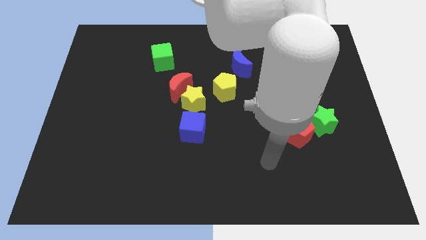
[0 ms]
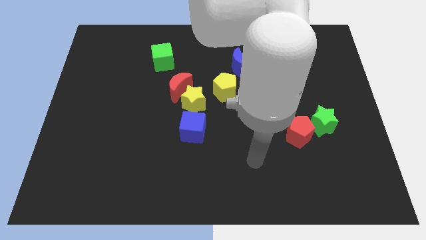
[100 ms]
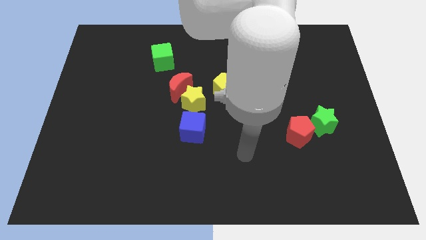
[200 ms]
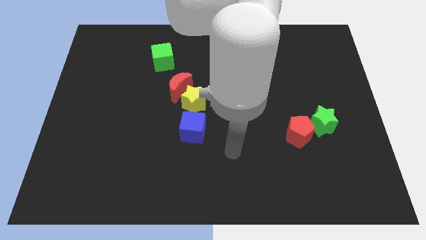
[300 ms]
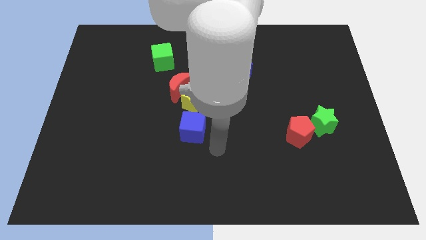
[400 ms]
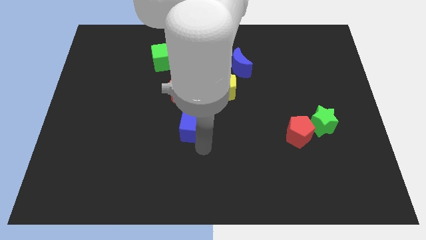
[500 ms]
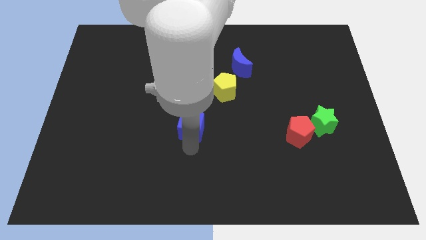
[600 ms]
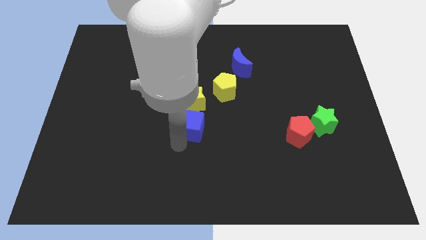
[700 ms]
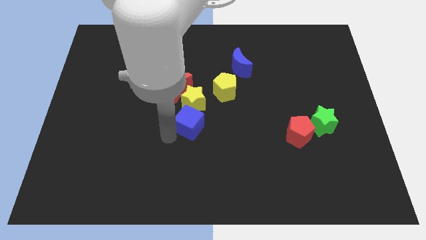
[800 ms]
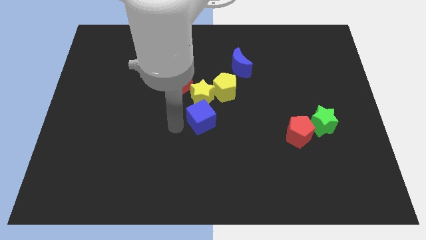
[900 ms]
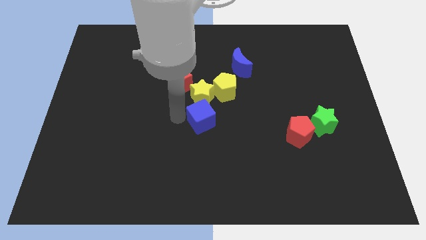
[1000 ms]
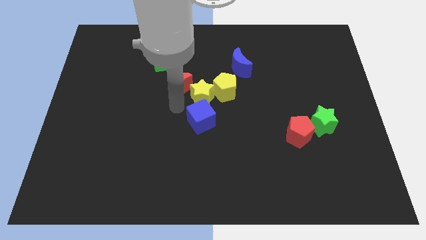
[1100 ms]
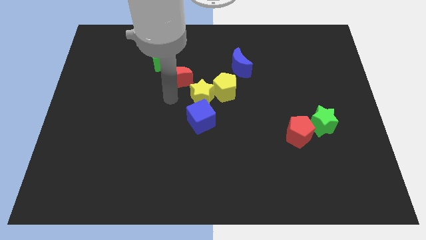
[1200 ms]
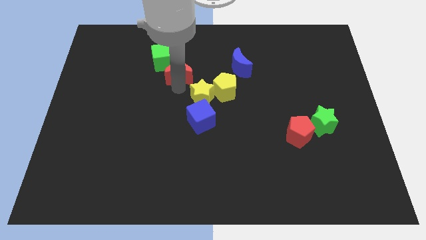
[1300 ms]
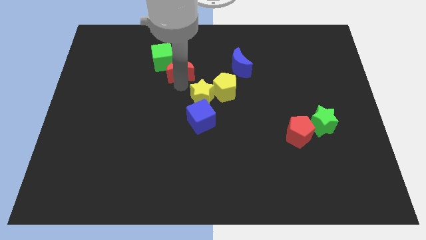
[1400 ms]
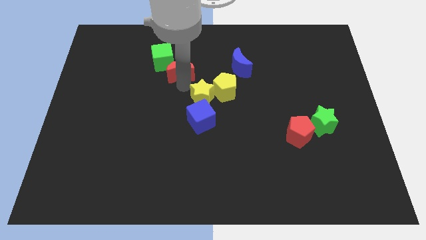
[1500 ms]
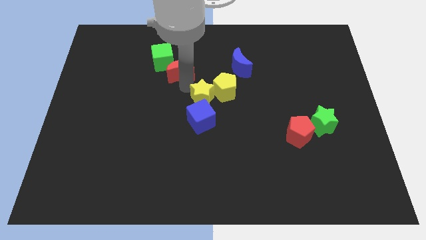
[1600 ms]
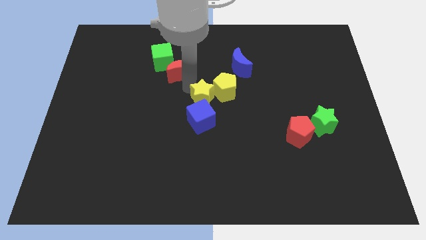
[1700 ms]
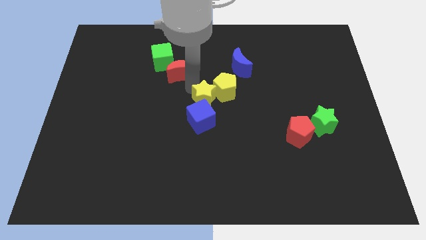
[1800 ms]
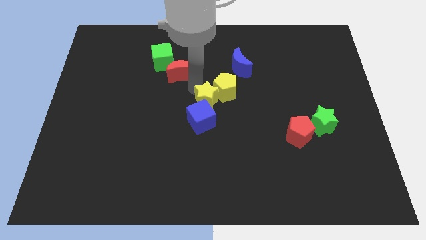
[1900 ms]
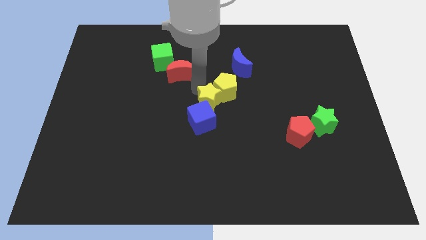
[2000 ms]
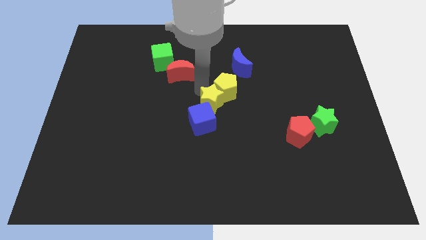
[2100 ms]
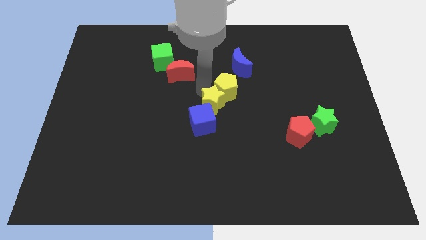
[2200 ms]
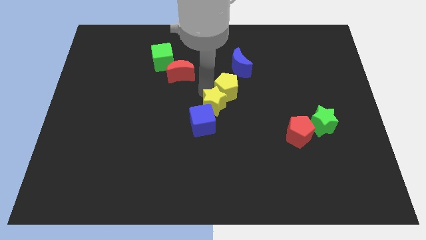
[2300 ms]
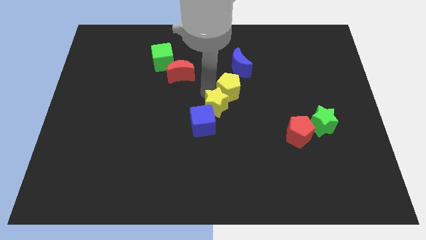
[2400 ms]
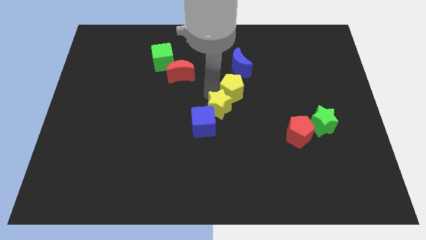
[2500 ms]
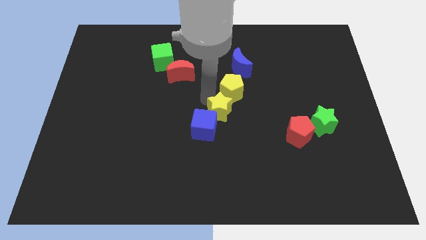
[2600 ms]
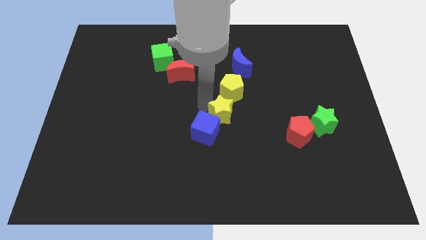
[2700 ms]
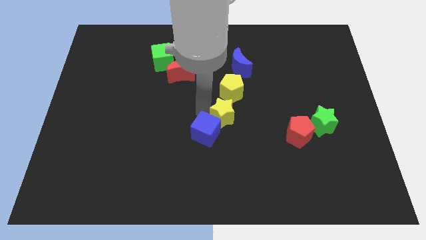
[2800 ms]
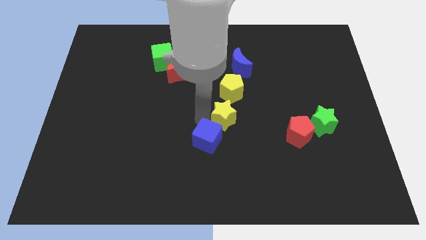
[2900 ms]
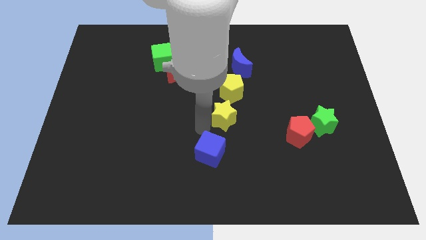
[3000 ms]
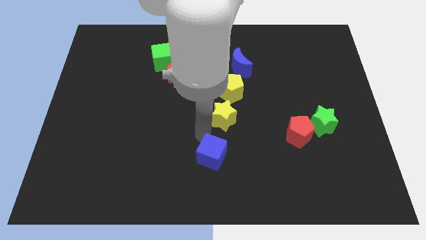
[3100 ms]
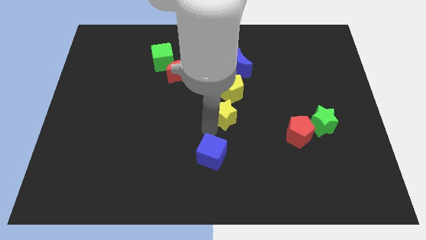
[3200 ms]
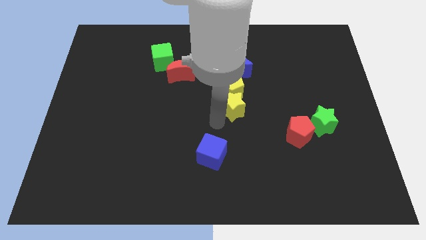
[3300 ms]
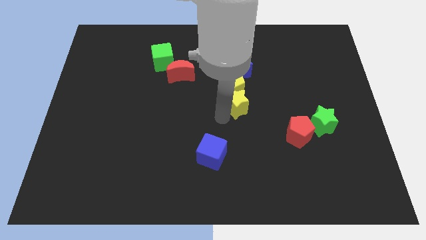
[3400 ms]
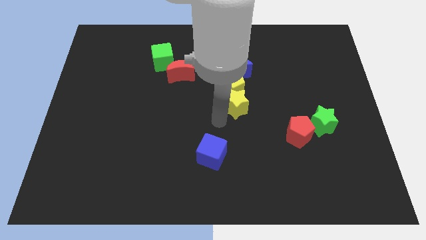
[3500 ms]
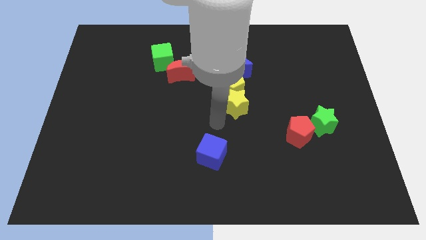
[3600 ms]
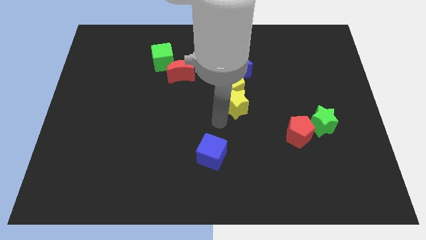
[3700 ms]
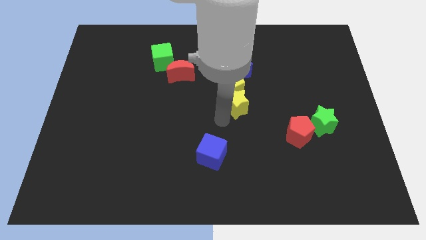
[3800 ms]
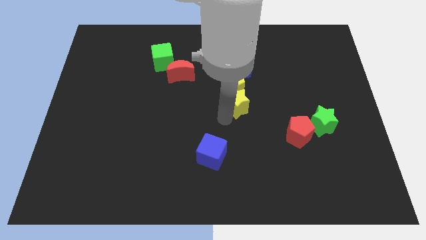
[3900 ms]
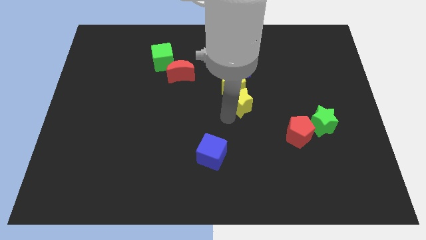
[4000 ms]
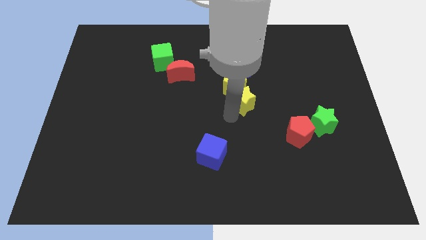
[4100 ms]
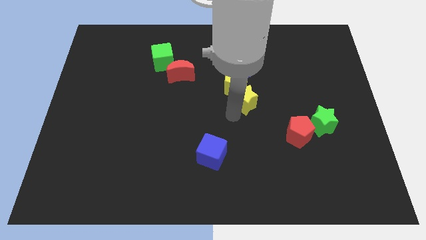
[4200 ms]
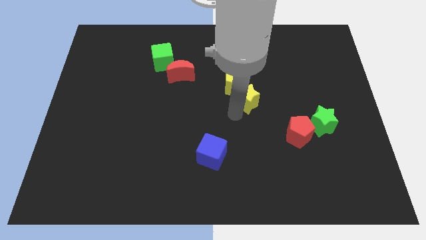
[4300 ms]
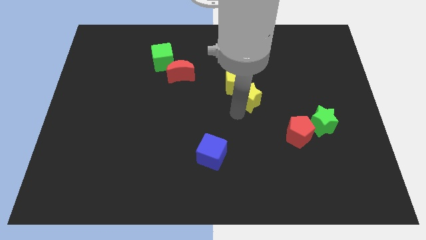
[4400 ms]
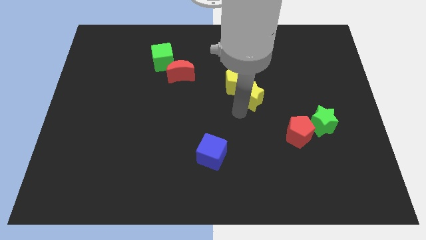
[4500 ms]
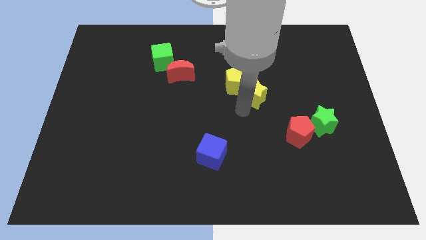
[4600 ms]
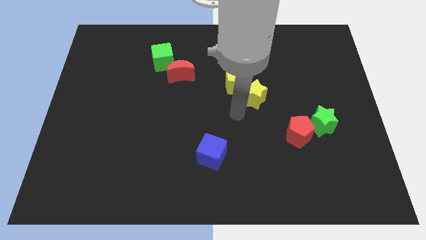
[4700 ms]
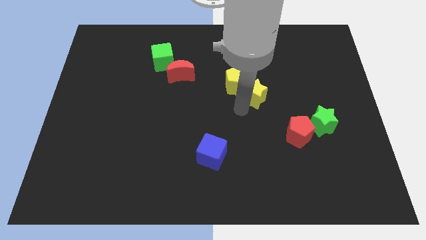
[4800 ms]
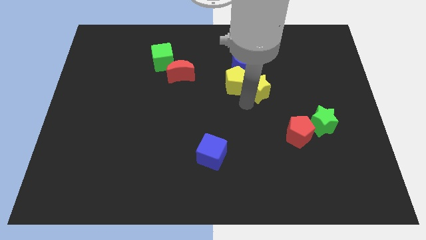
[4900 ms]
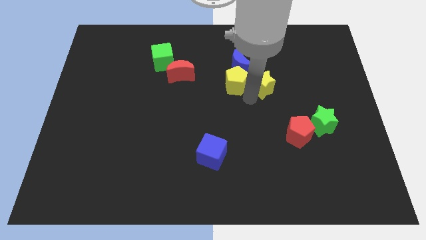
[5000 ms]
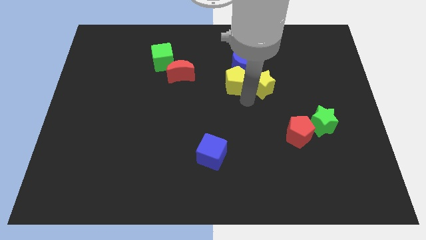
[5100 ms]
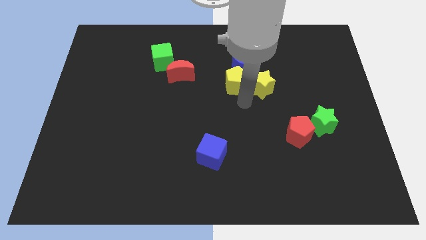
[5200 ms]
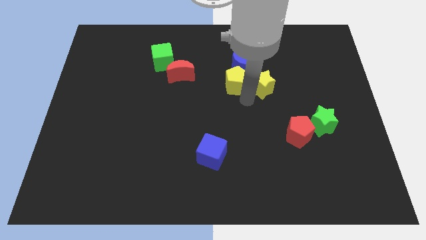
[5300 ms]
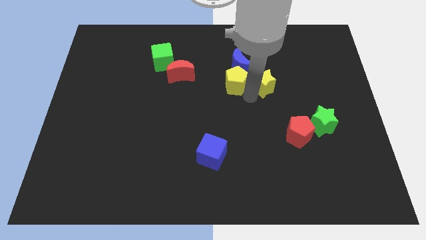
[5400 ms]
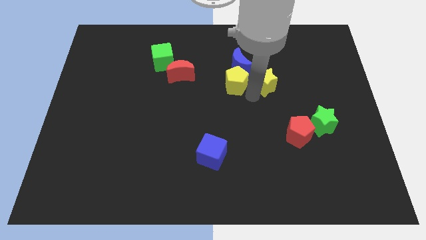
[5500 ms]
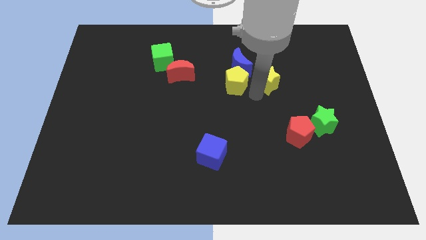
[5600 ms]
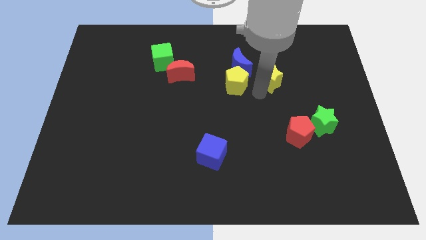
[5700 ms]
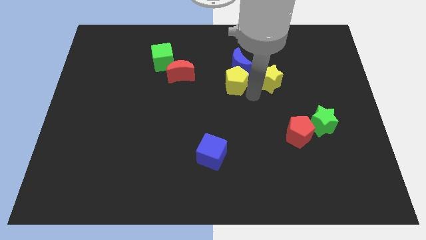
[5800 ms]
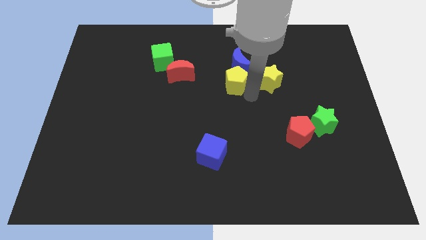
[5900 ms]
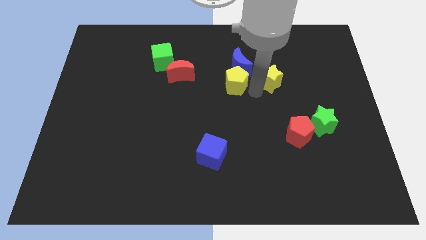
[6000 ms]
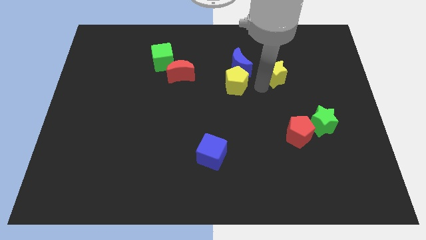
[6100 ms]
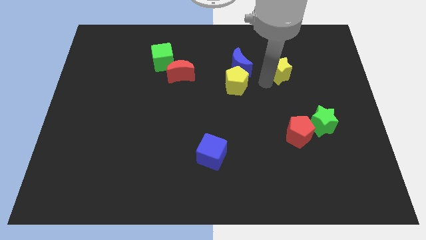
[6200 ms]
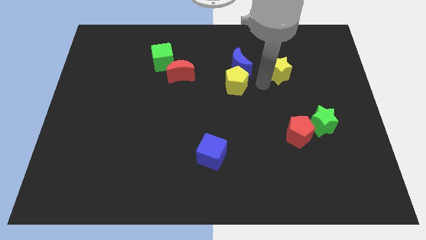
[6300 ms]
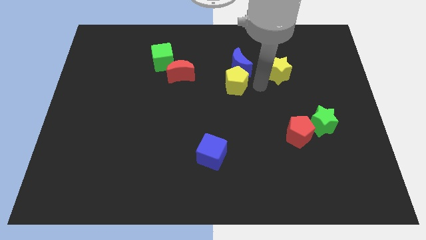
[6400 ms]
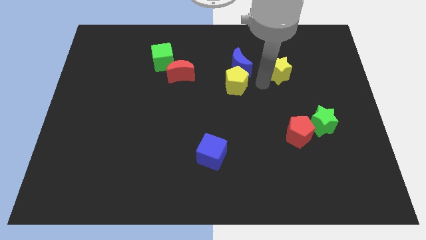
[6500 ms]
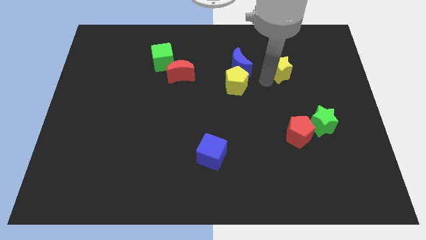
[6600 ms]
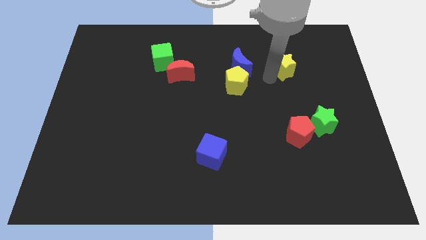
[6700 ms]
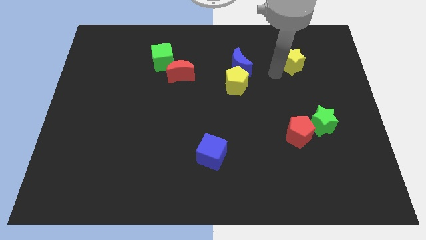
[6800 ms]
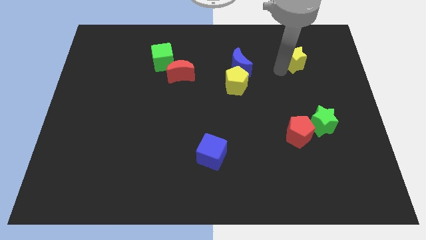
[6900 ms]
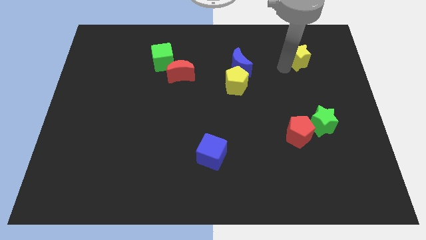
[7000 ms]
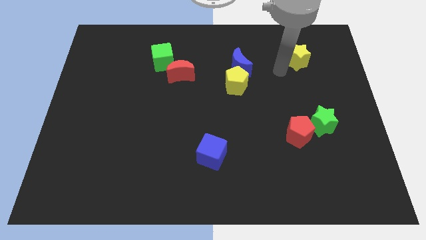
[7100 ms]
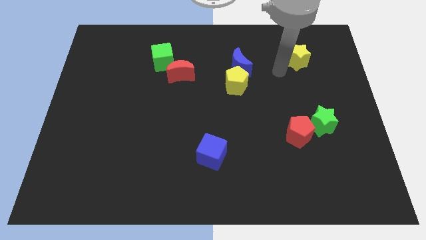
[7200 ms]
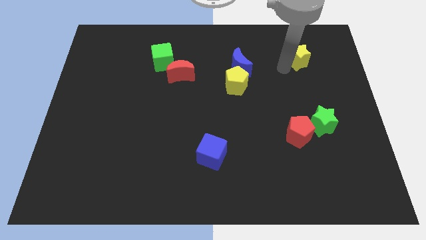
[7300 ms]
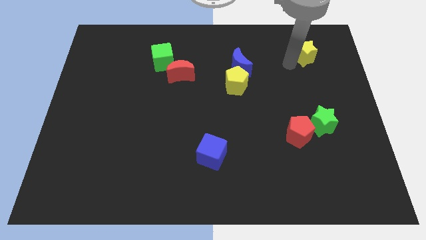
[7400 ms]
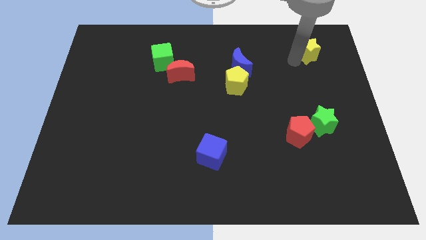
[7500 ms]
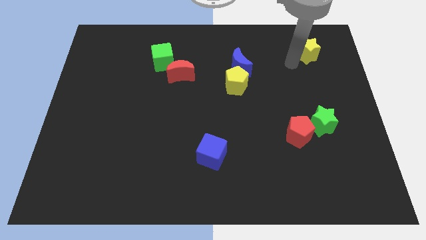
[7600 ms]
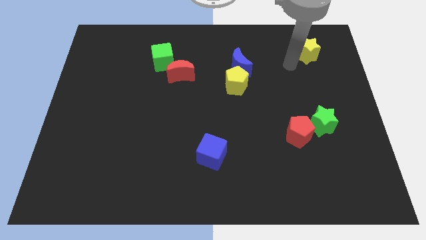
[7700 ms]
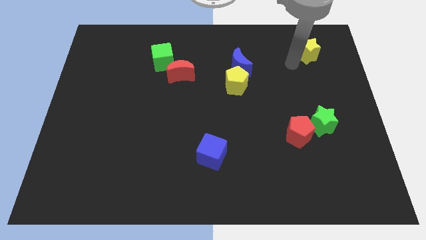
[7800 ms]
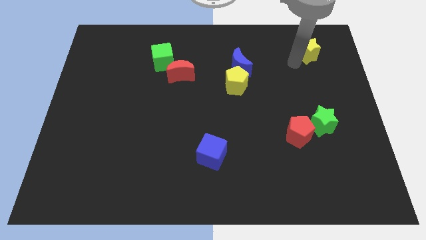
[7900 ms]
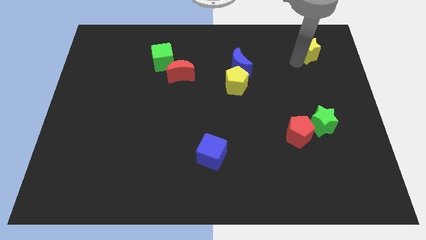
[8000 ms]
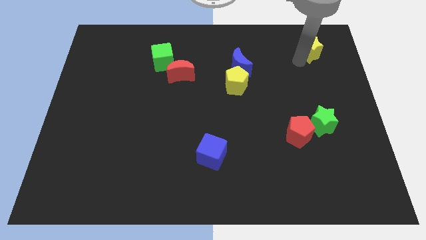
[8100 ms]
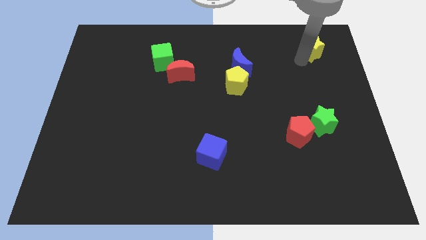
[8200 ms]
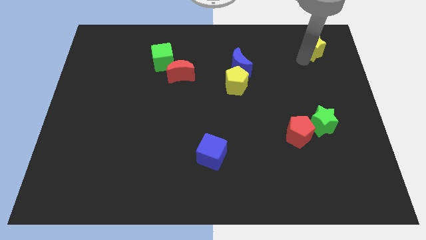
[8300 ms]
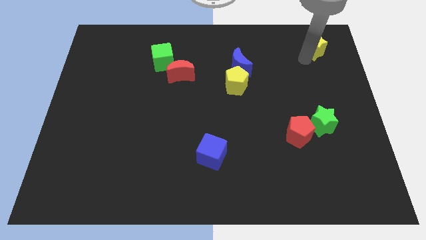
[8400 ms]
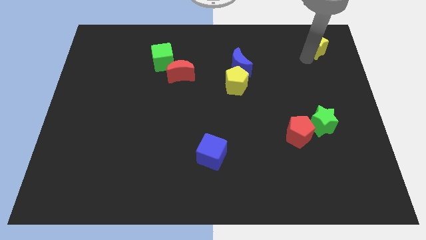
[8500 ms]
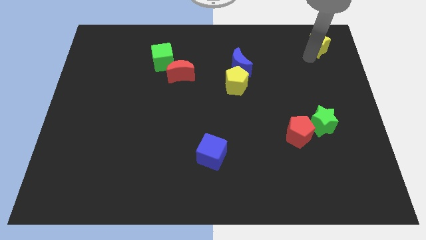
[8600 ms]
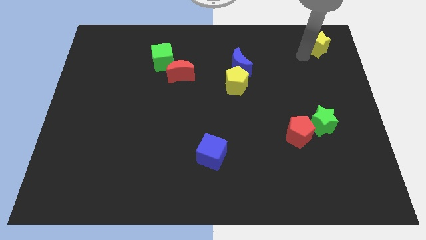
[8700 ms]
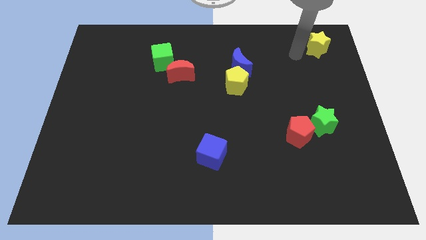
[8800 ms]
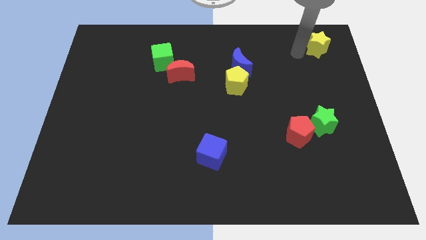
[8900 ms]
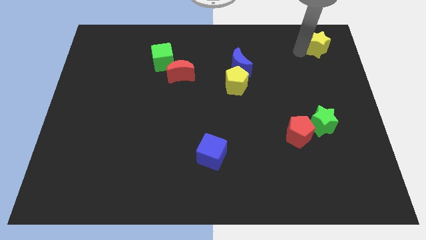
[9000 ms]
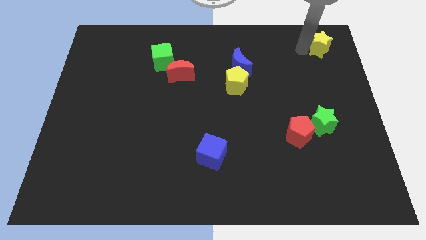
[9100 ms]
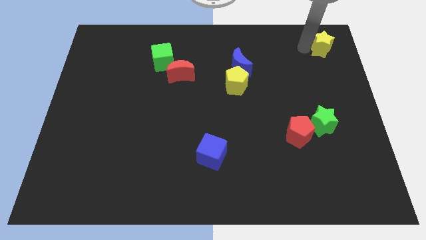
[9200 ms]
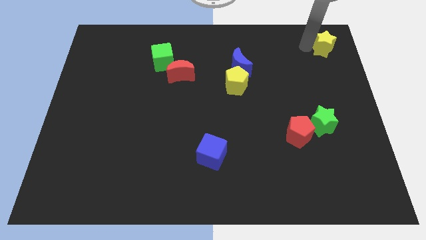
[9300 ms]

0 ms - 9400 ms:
move the yellow star to the top right corner
